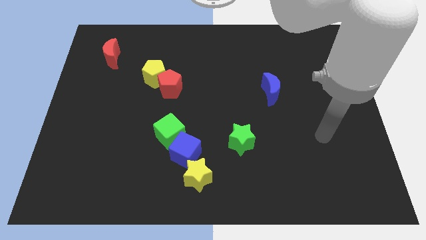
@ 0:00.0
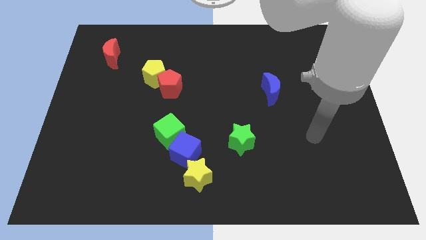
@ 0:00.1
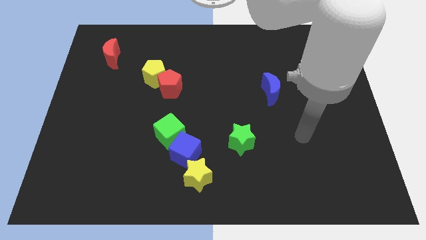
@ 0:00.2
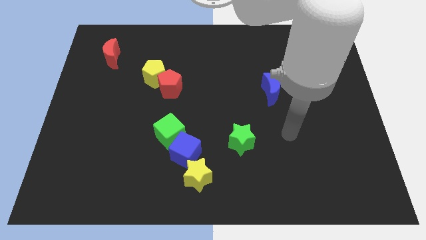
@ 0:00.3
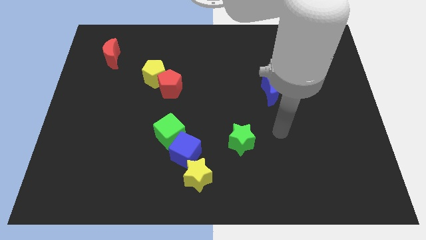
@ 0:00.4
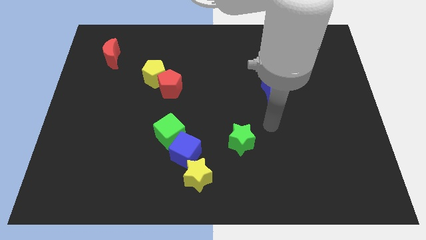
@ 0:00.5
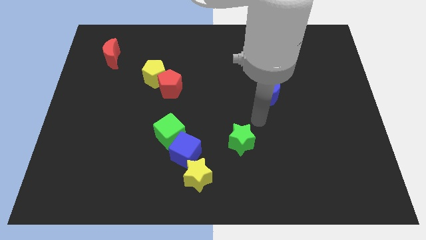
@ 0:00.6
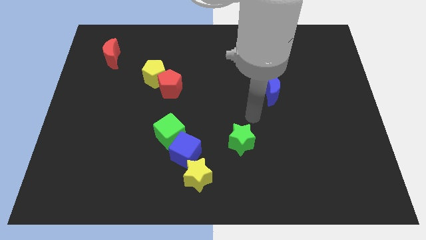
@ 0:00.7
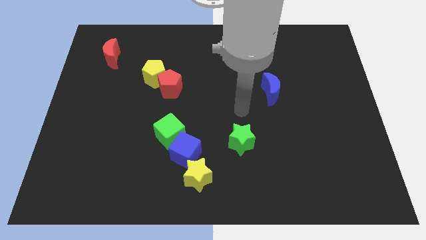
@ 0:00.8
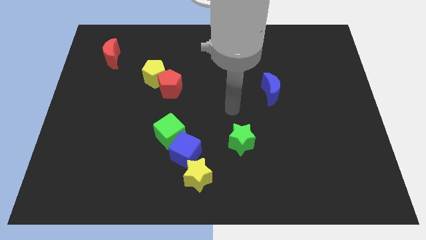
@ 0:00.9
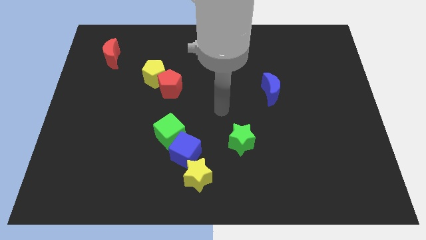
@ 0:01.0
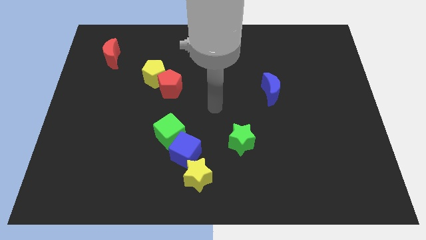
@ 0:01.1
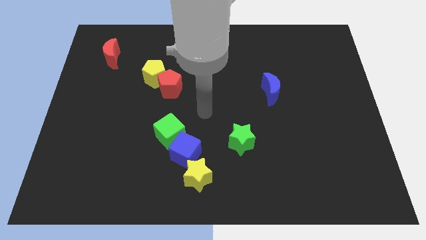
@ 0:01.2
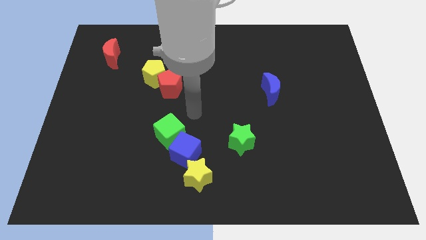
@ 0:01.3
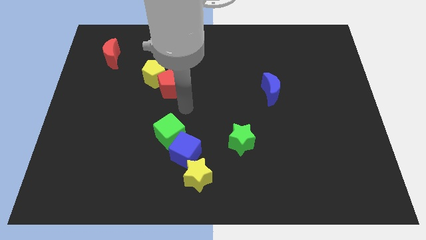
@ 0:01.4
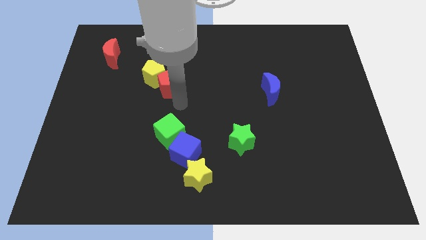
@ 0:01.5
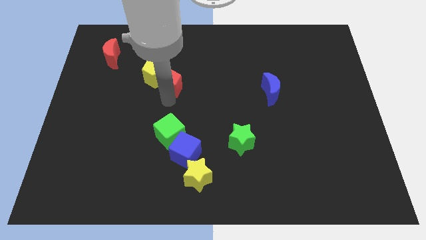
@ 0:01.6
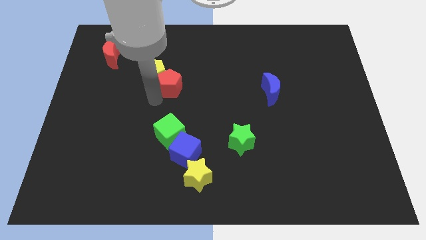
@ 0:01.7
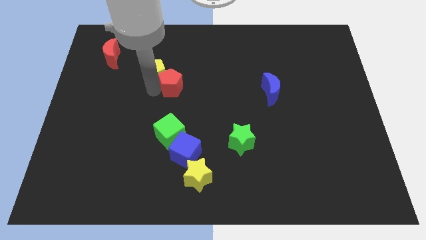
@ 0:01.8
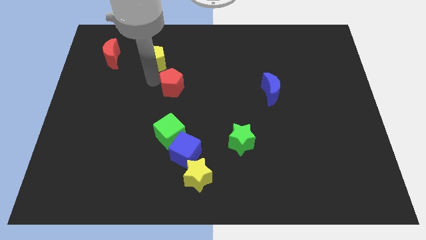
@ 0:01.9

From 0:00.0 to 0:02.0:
pull the red pentagon apart from the yellow pentagon

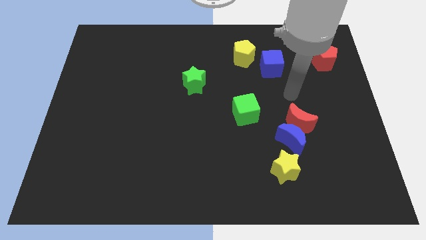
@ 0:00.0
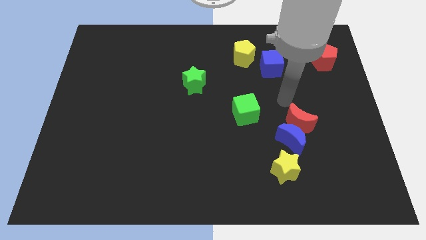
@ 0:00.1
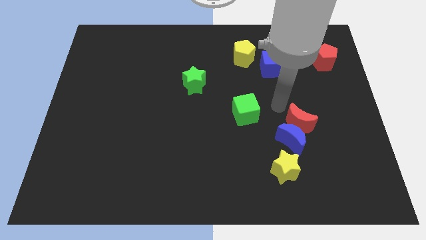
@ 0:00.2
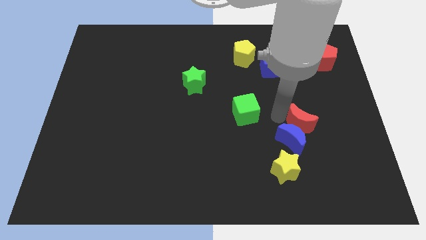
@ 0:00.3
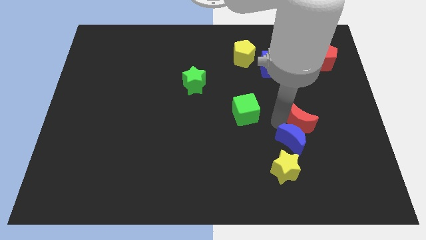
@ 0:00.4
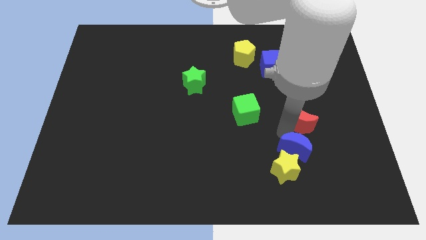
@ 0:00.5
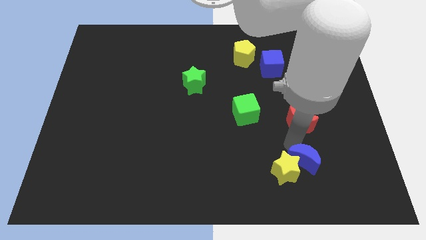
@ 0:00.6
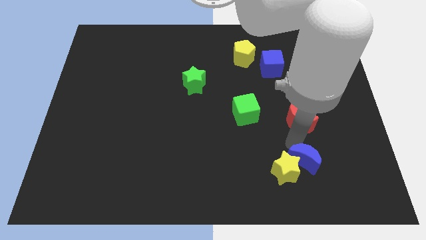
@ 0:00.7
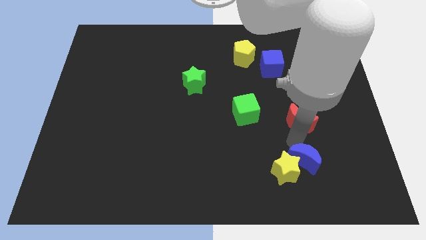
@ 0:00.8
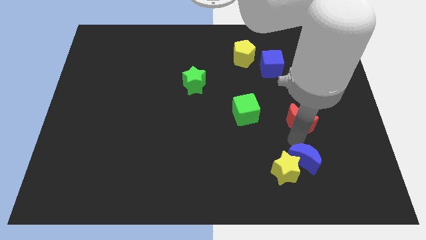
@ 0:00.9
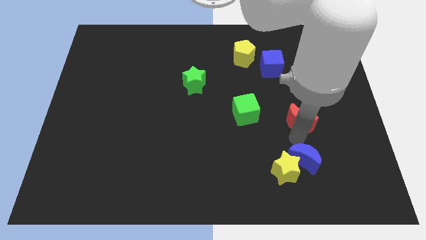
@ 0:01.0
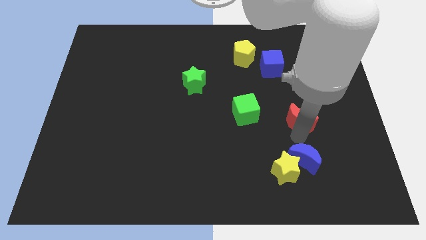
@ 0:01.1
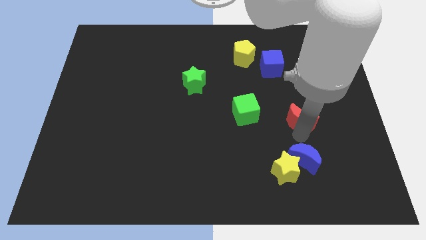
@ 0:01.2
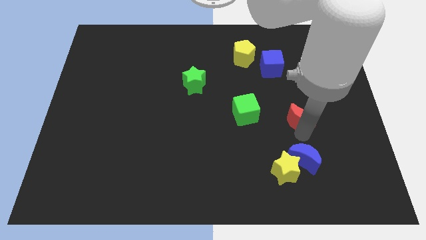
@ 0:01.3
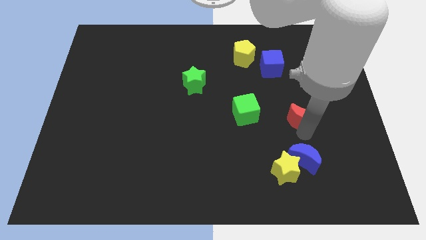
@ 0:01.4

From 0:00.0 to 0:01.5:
separate the red moon from the blue moon

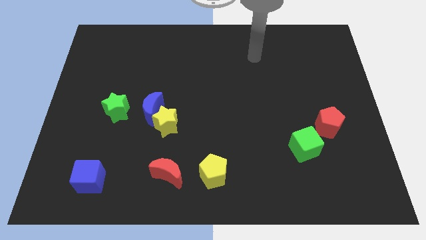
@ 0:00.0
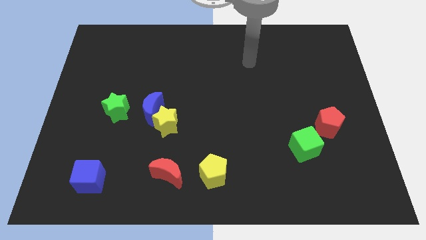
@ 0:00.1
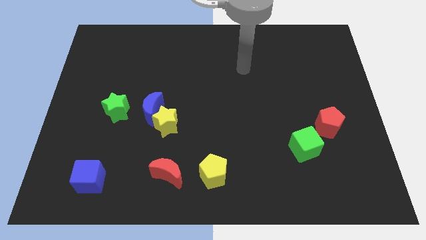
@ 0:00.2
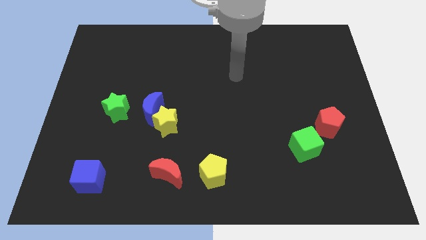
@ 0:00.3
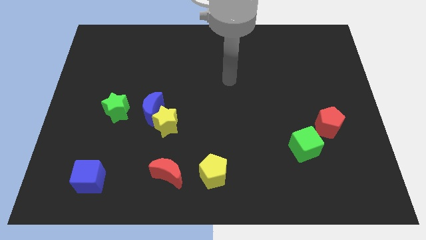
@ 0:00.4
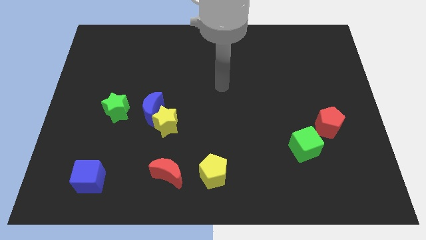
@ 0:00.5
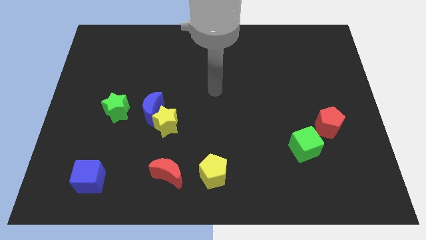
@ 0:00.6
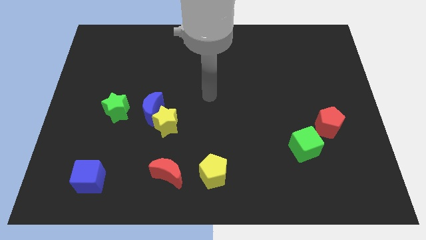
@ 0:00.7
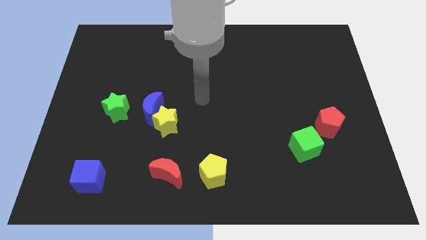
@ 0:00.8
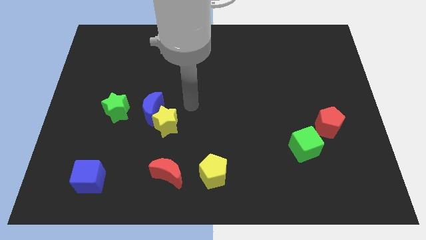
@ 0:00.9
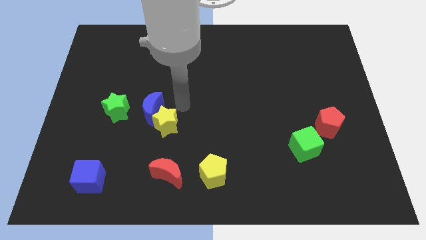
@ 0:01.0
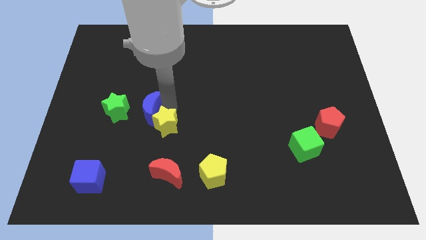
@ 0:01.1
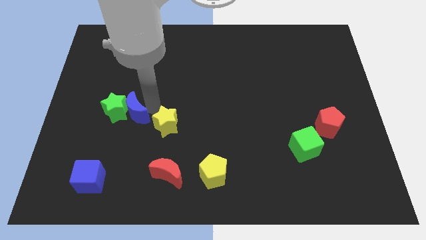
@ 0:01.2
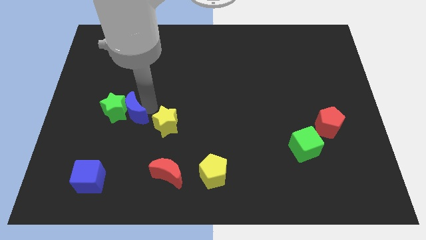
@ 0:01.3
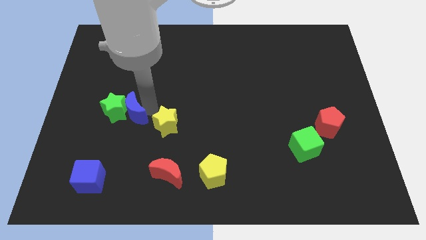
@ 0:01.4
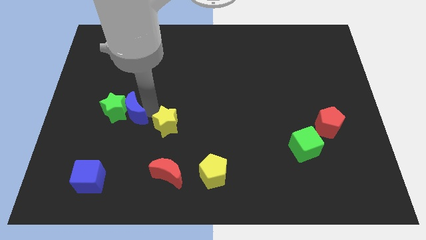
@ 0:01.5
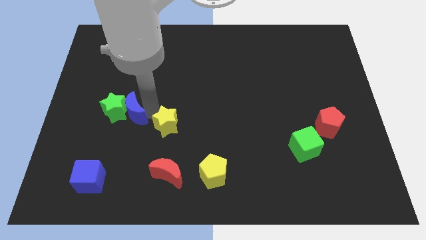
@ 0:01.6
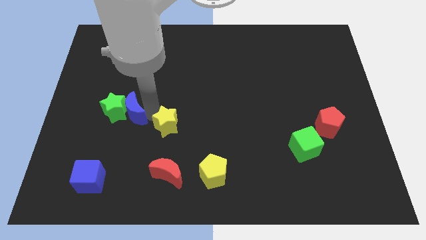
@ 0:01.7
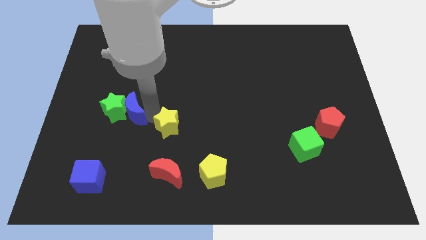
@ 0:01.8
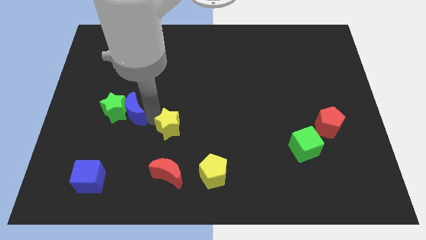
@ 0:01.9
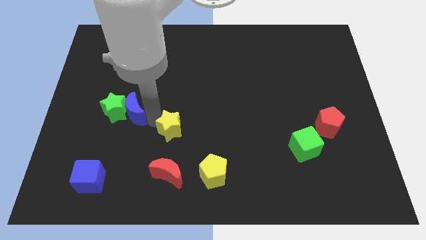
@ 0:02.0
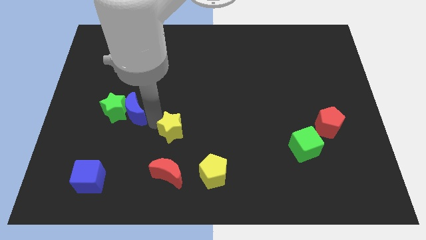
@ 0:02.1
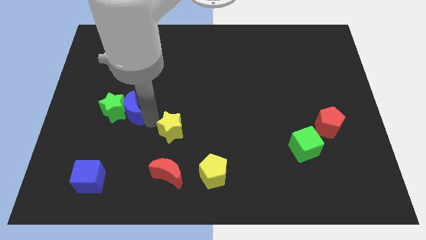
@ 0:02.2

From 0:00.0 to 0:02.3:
pull the yellow star apart from the blue moon

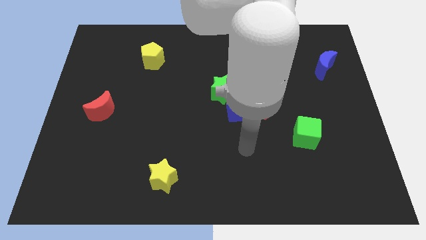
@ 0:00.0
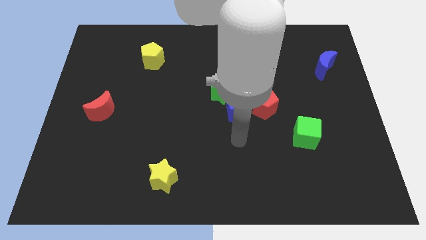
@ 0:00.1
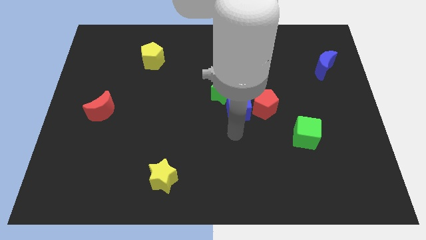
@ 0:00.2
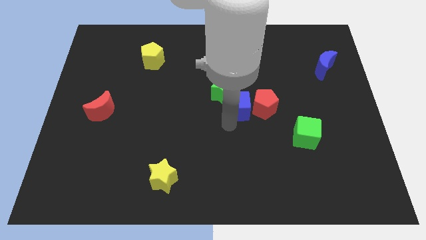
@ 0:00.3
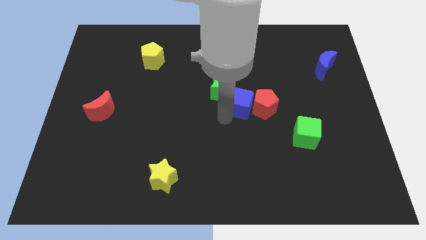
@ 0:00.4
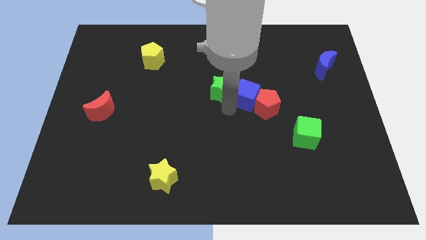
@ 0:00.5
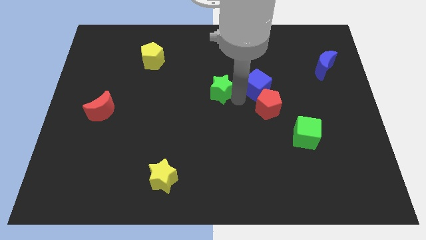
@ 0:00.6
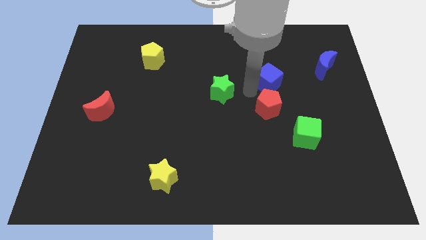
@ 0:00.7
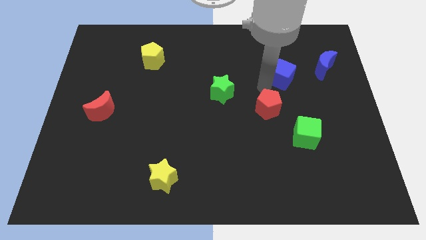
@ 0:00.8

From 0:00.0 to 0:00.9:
move the red pentagon away from the blue cube

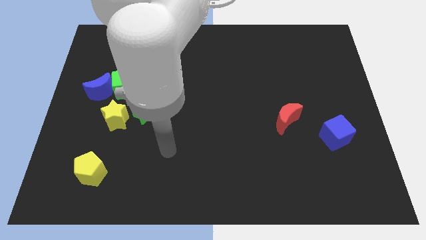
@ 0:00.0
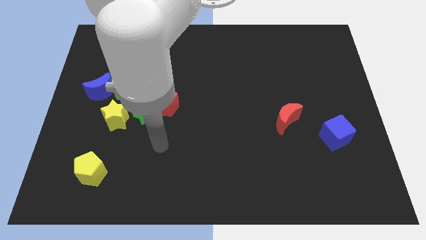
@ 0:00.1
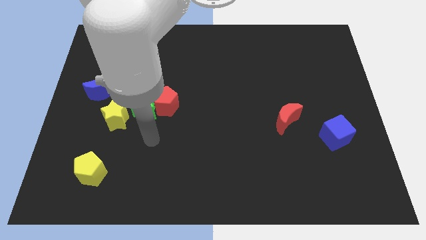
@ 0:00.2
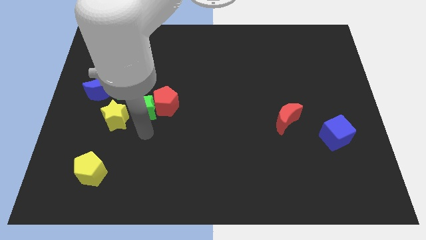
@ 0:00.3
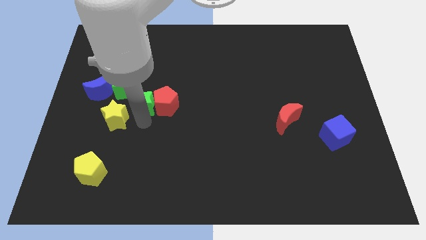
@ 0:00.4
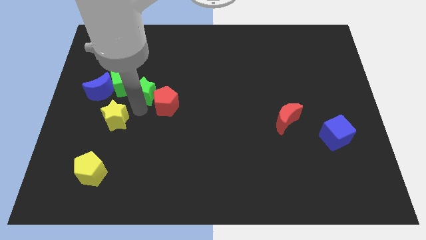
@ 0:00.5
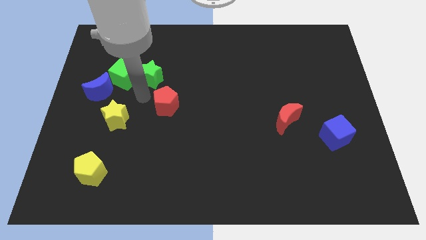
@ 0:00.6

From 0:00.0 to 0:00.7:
move the red pentagon away from the green star

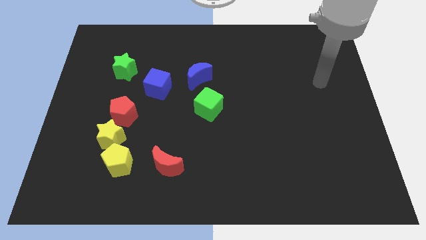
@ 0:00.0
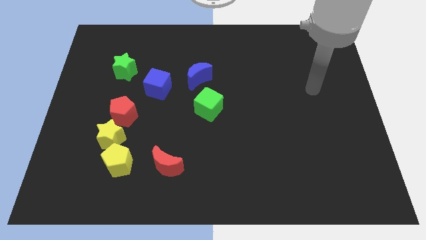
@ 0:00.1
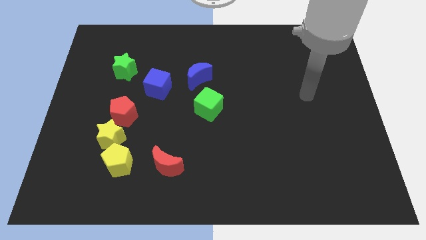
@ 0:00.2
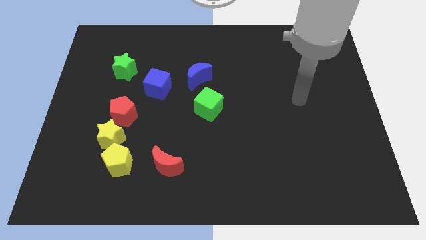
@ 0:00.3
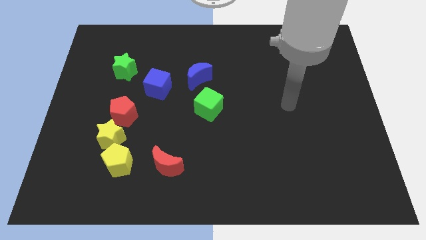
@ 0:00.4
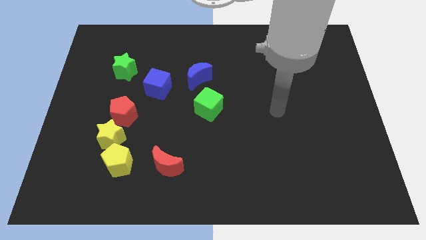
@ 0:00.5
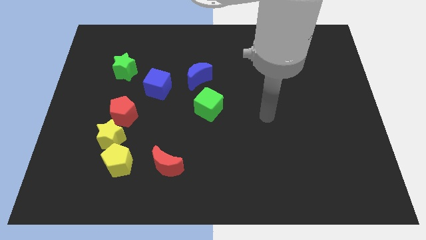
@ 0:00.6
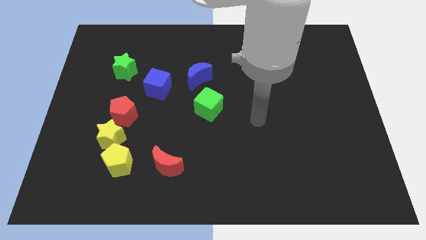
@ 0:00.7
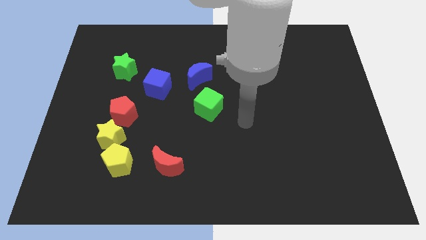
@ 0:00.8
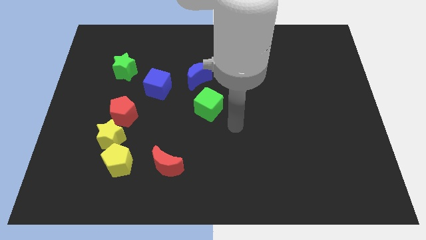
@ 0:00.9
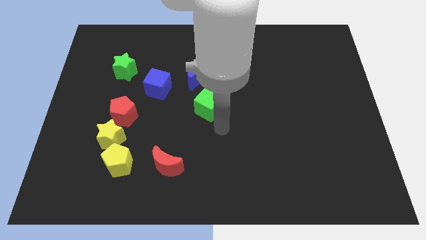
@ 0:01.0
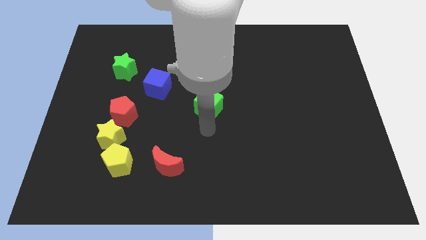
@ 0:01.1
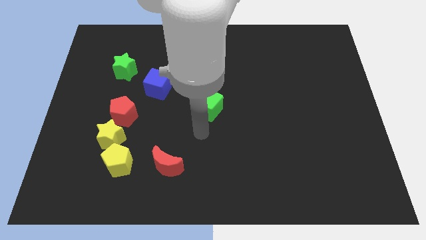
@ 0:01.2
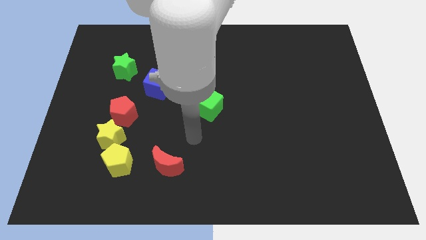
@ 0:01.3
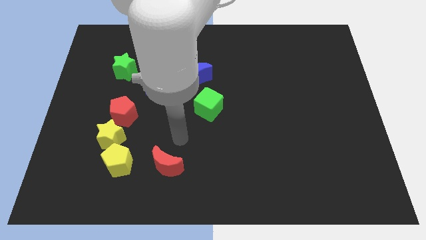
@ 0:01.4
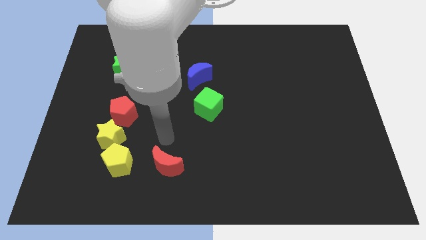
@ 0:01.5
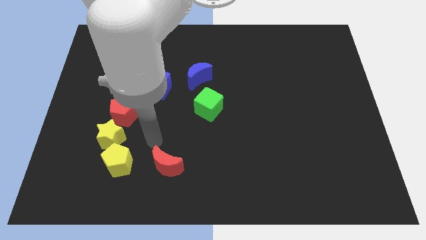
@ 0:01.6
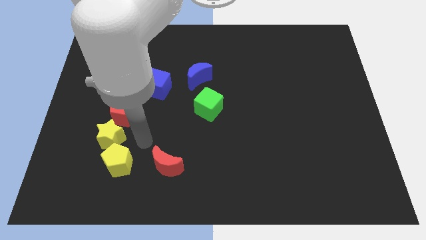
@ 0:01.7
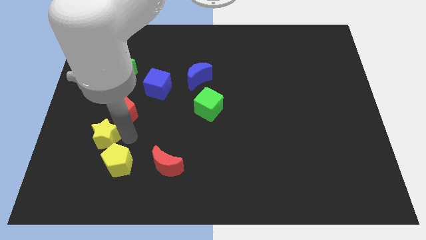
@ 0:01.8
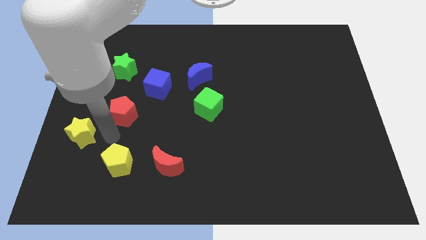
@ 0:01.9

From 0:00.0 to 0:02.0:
separate the red pentagon from the yellow star

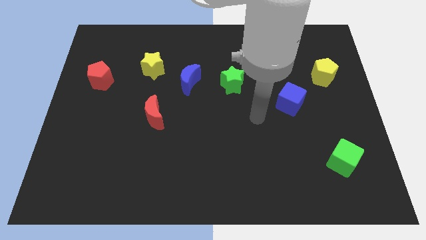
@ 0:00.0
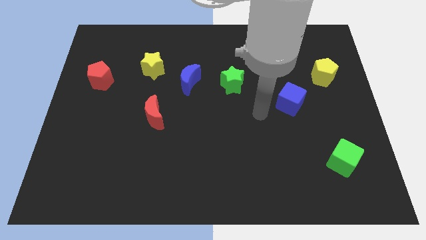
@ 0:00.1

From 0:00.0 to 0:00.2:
separate the blue moon from the yellow star
